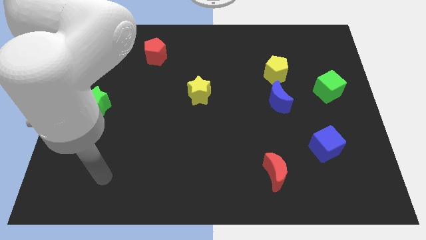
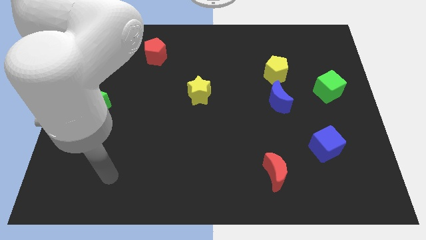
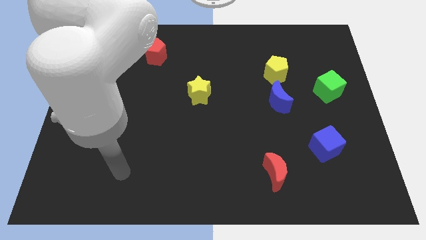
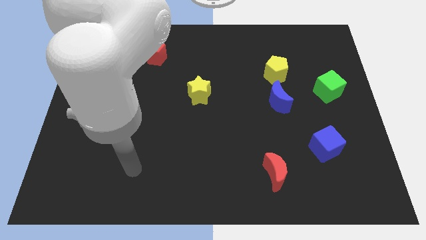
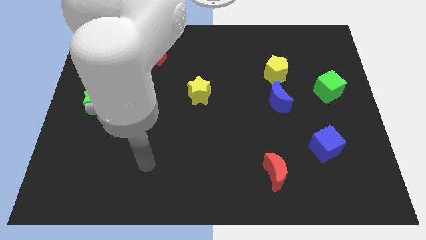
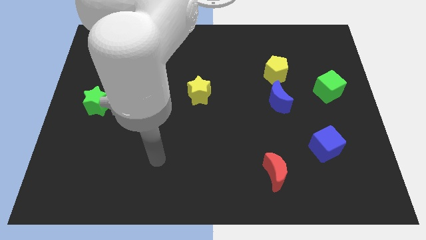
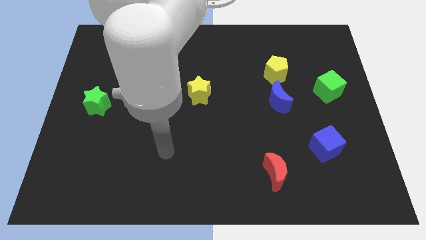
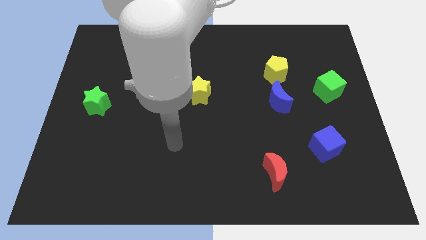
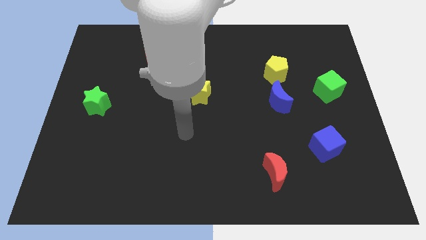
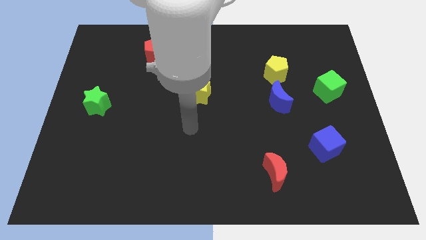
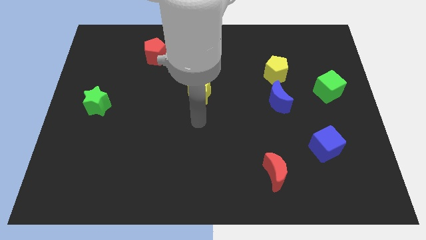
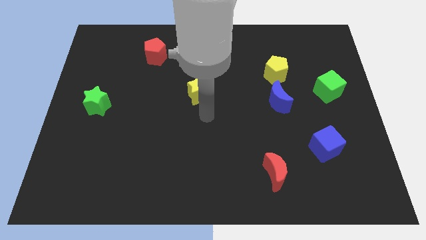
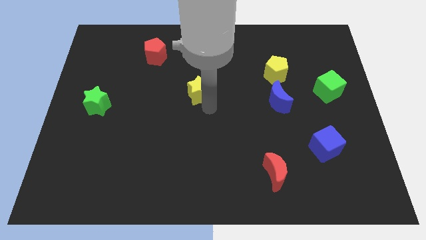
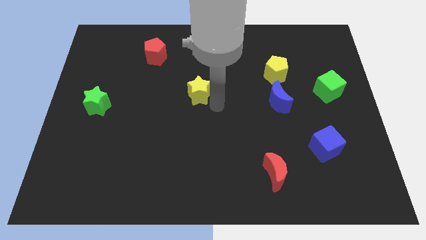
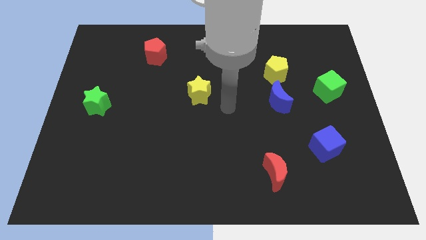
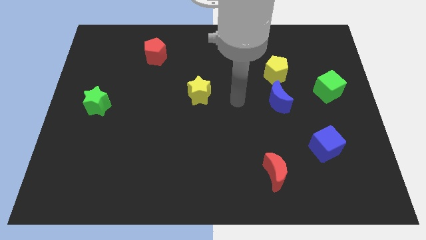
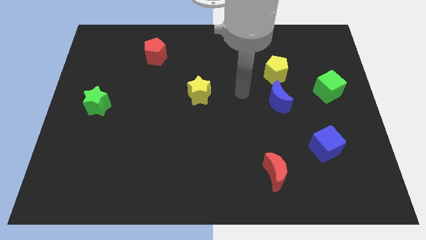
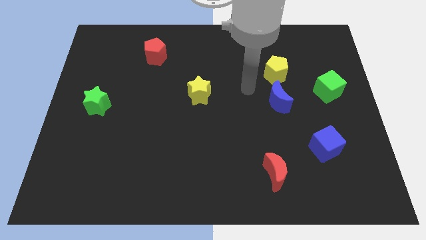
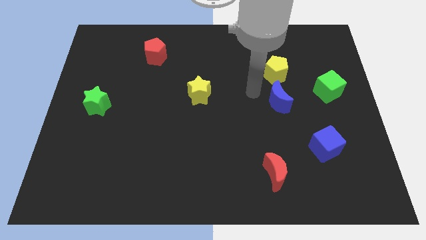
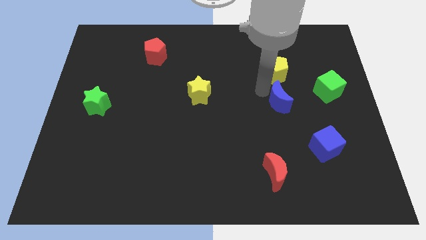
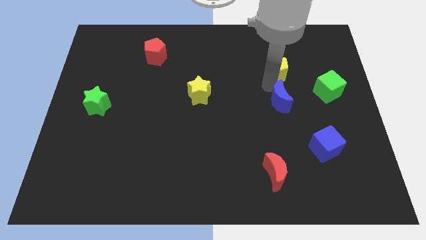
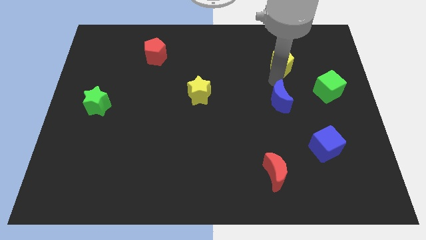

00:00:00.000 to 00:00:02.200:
move the blue moon away from the yellow pentagon

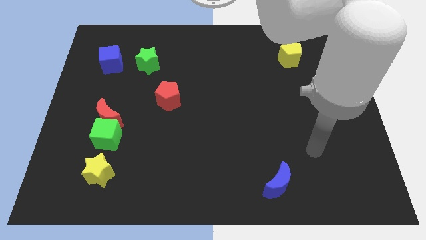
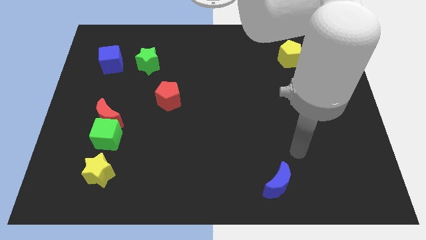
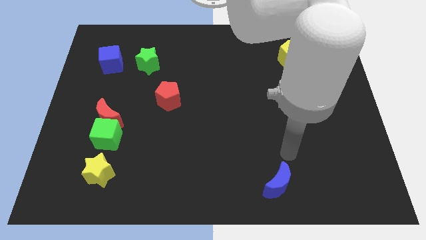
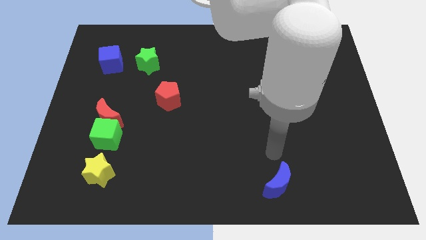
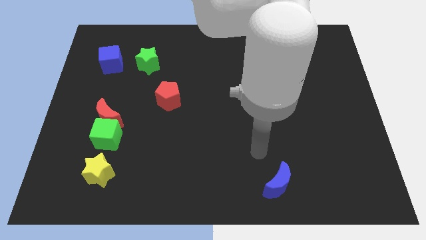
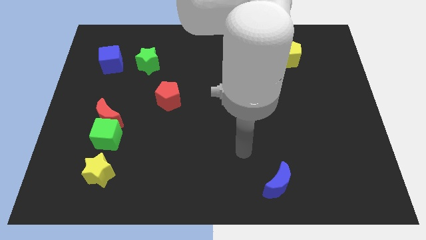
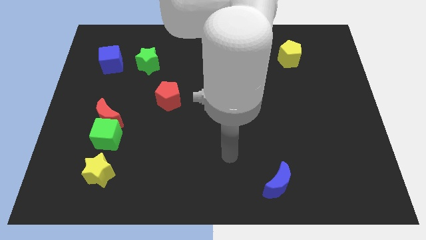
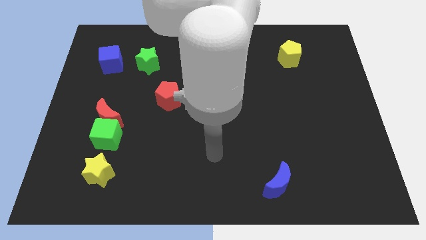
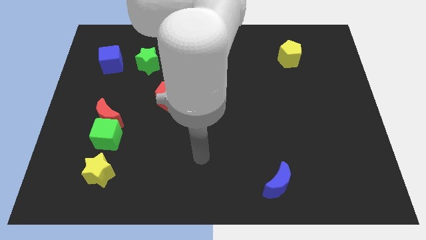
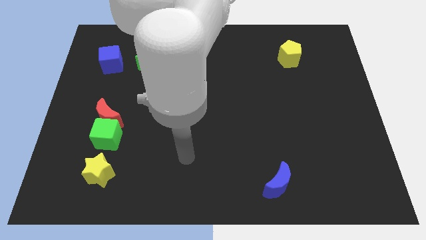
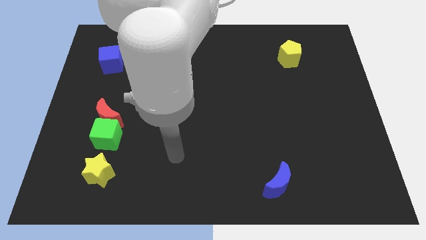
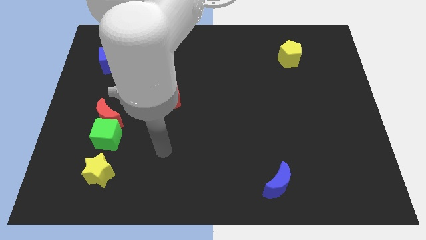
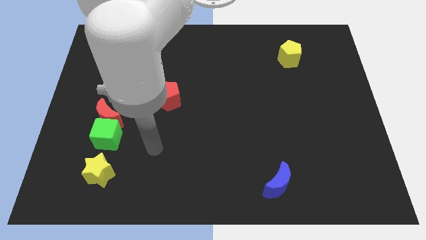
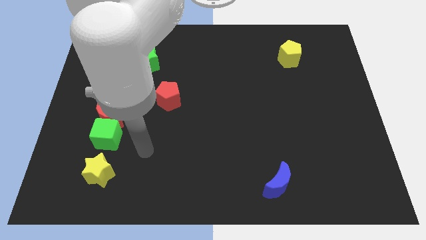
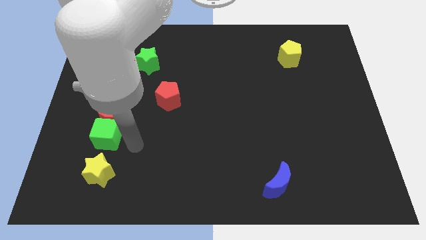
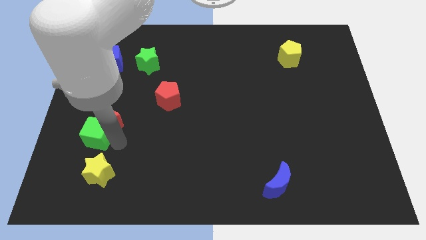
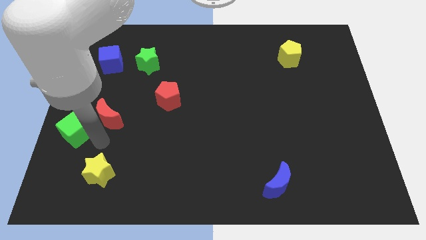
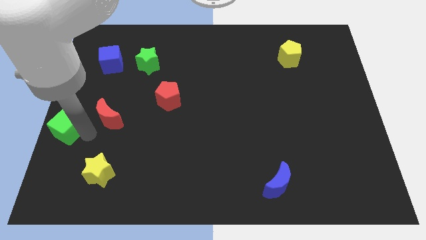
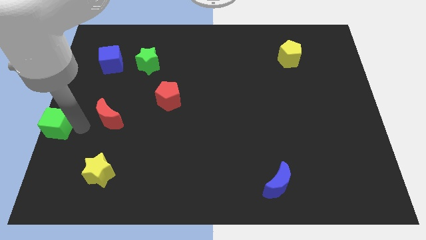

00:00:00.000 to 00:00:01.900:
move the red moon away from the green cube

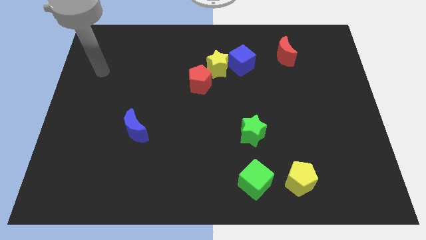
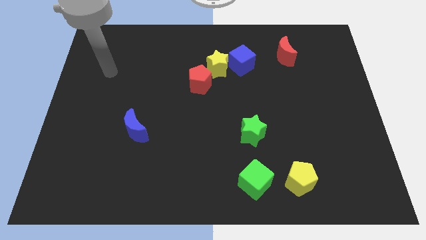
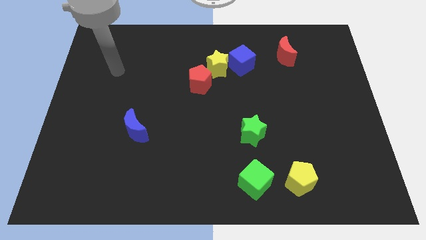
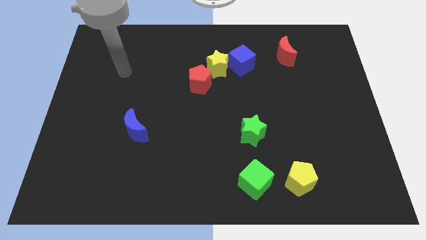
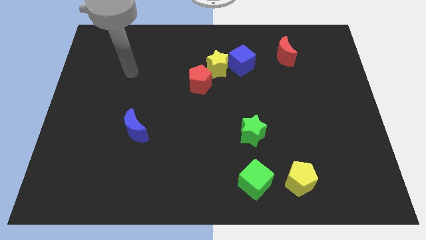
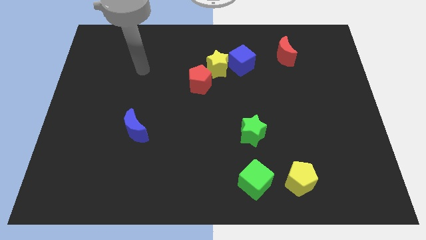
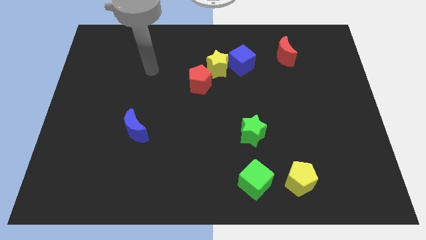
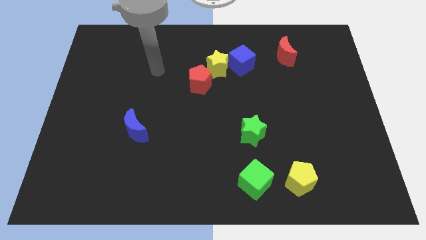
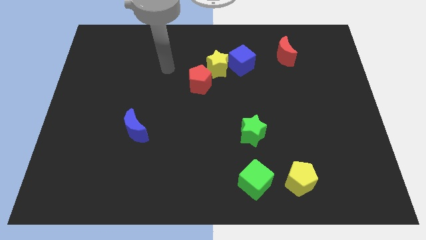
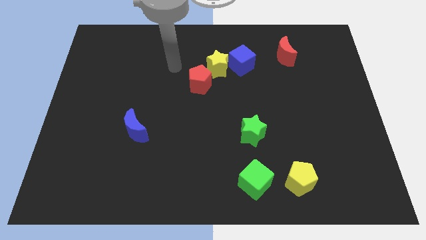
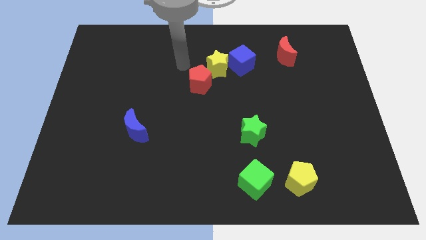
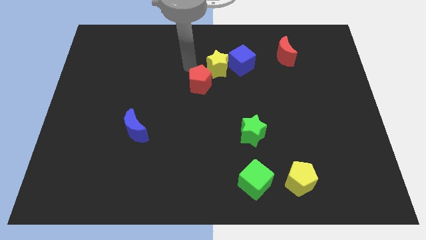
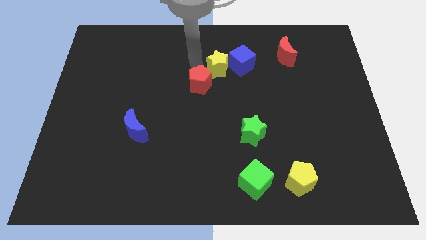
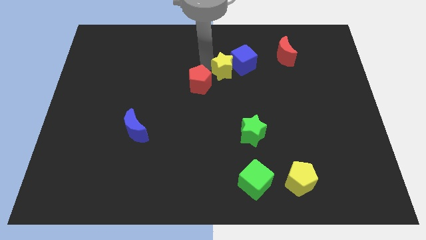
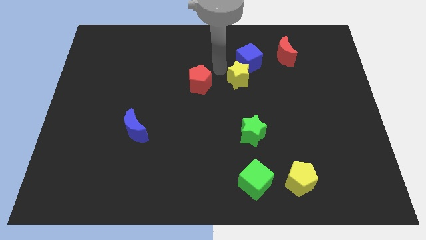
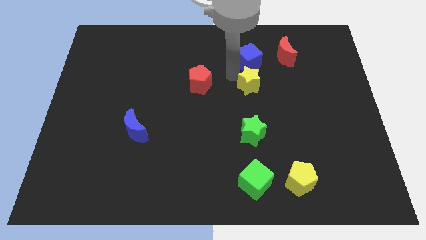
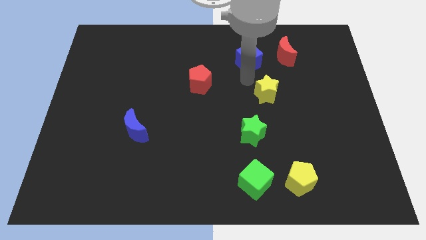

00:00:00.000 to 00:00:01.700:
separate the blue cube from the yellow star

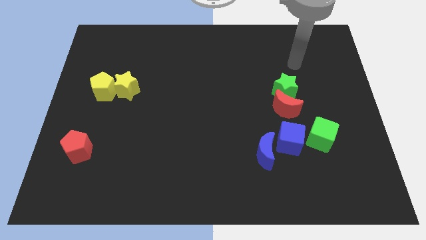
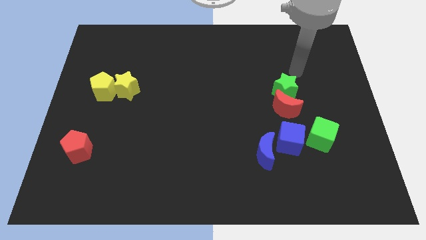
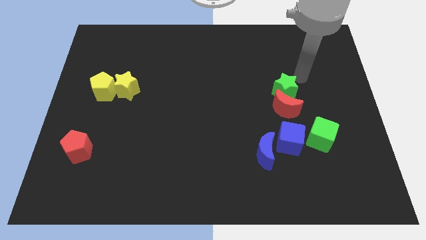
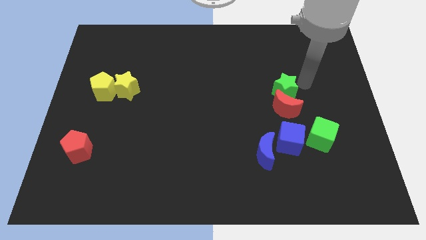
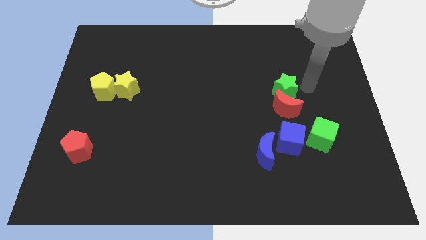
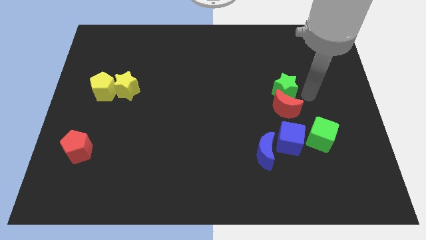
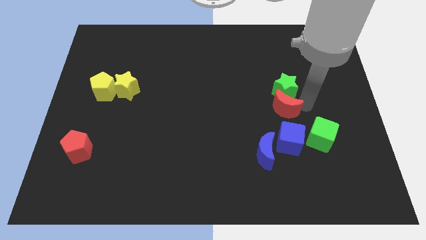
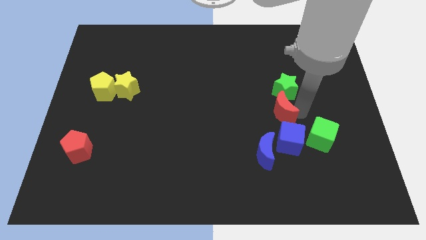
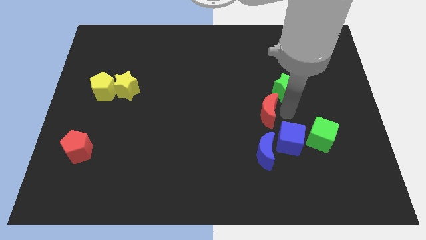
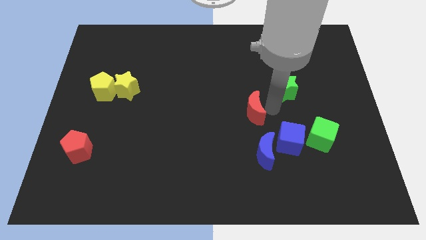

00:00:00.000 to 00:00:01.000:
separate the green star from the red moon

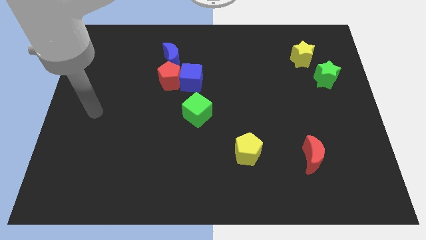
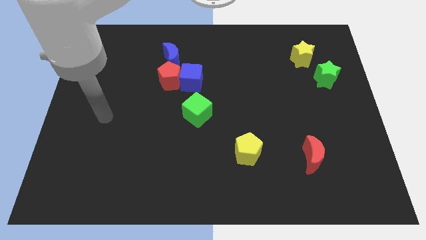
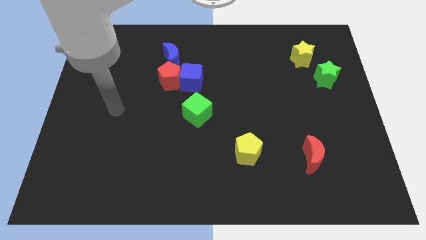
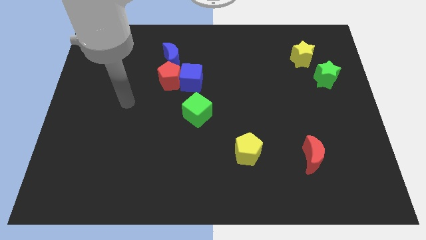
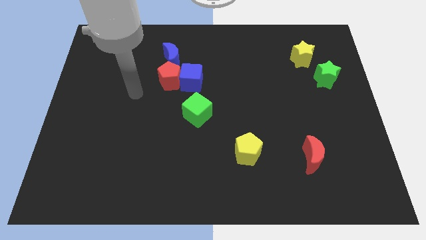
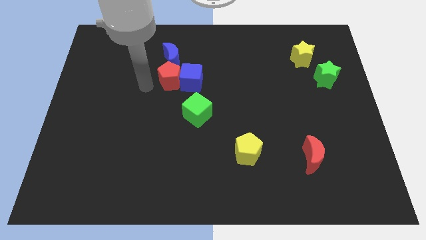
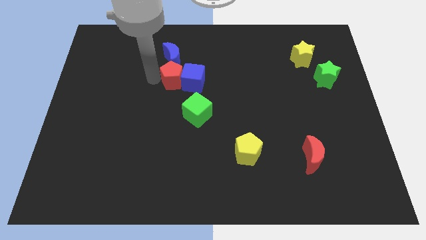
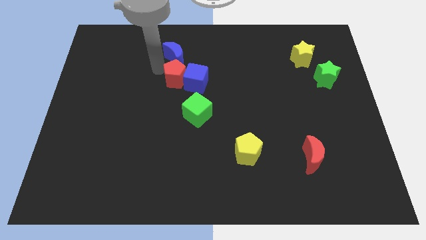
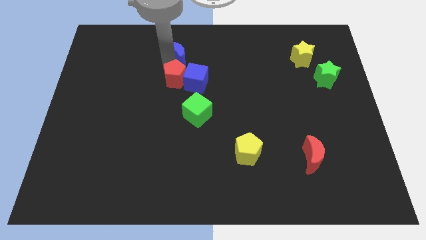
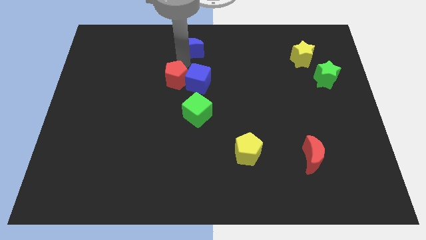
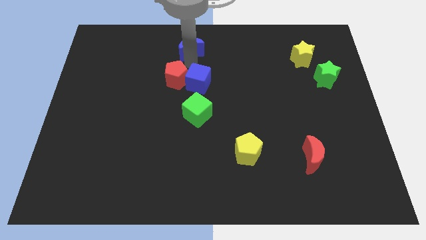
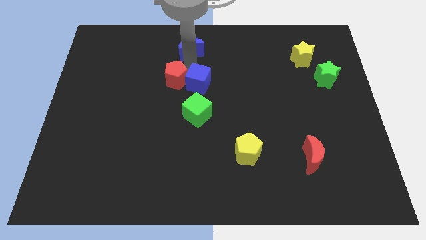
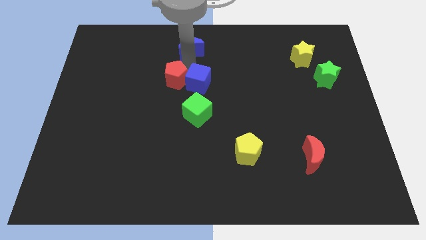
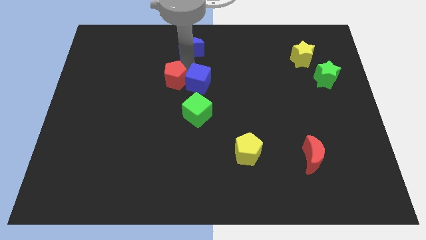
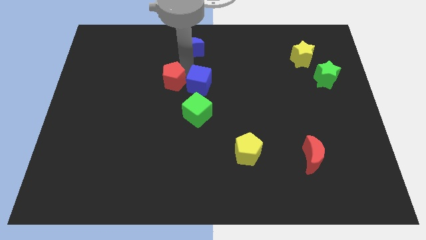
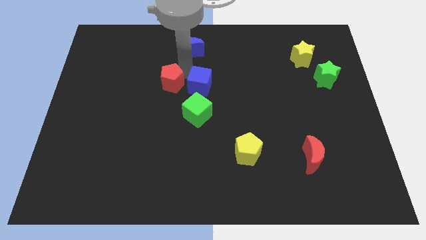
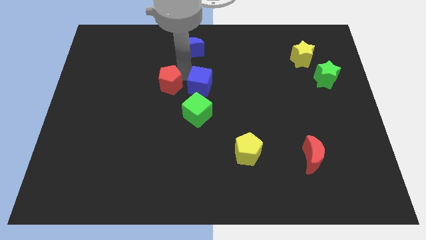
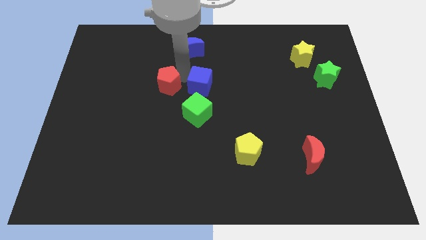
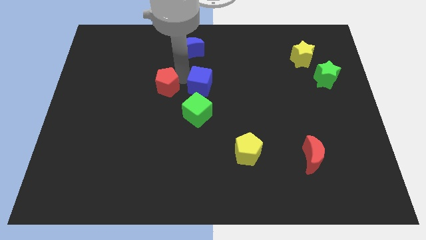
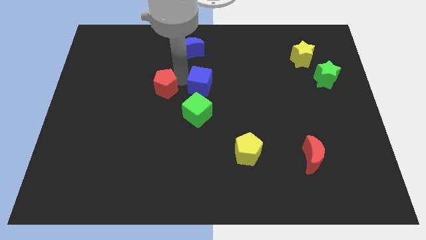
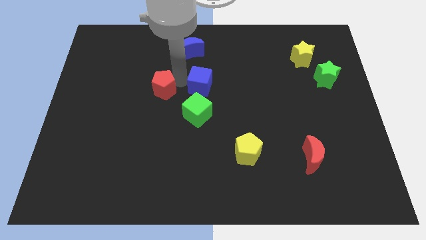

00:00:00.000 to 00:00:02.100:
separate the red pentagon from the blue cube and blue moon

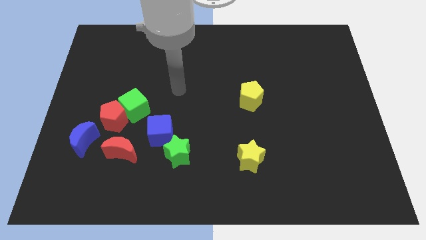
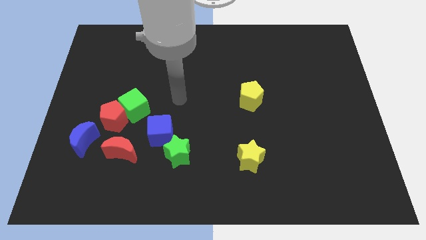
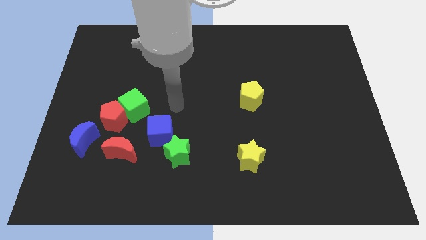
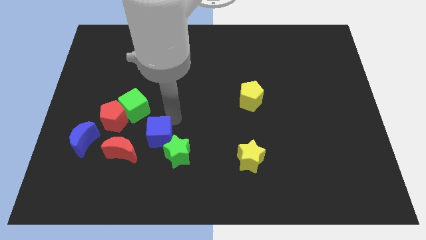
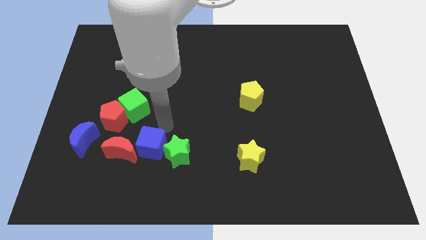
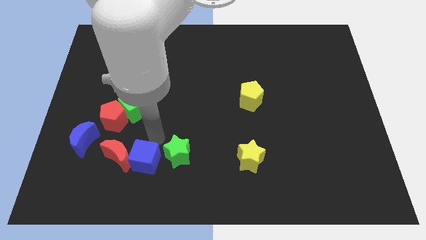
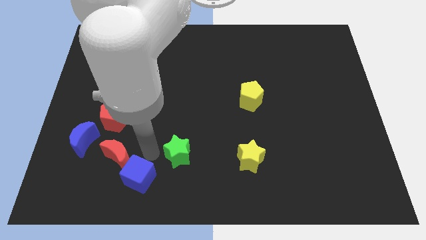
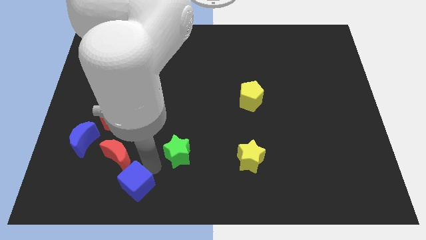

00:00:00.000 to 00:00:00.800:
move the green star away from the blue cube
